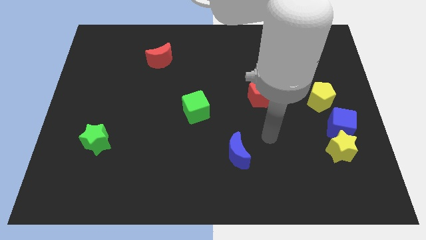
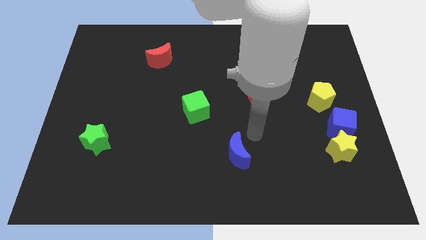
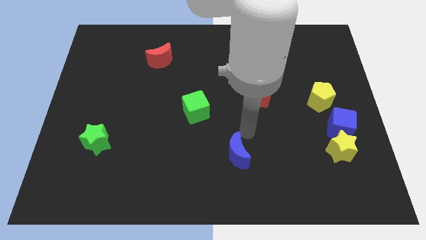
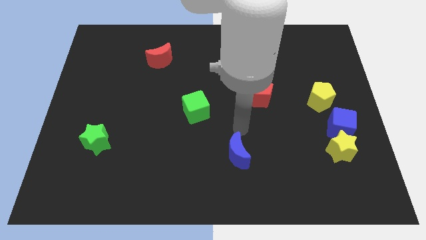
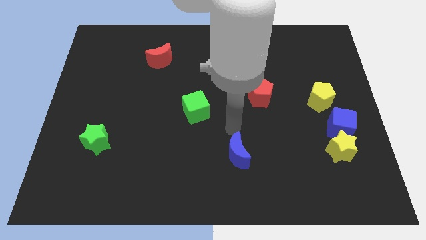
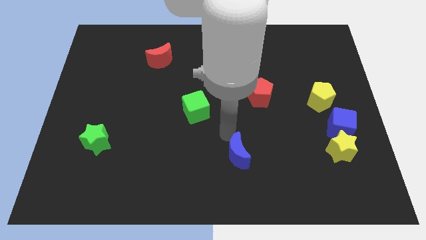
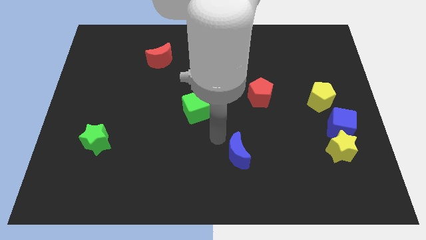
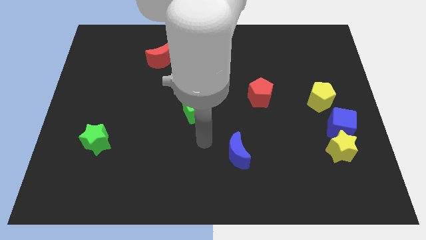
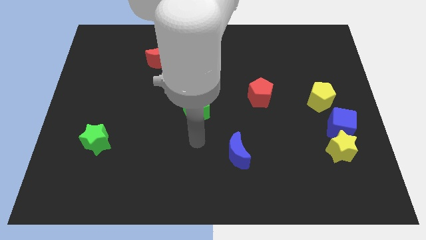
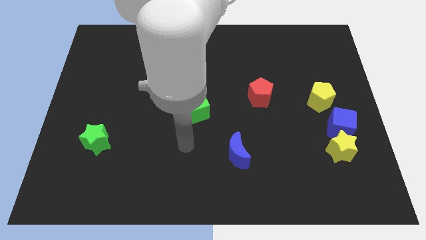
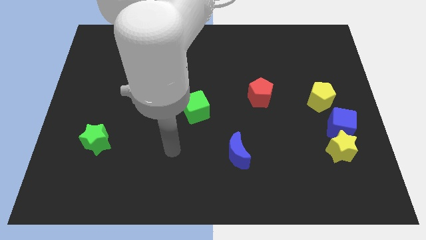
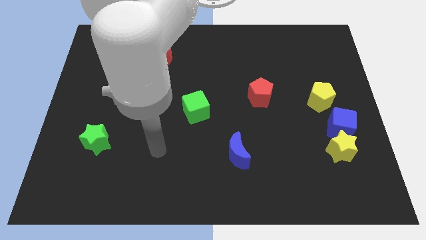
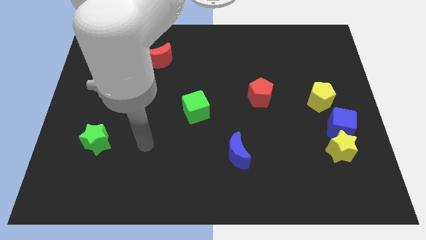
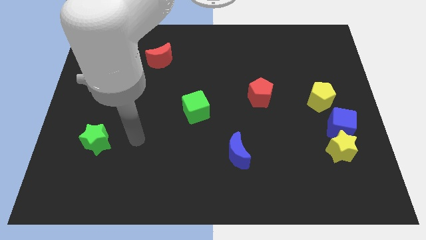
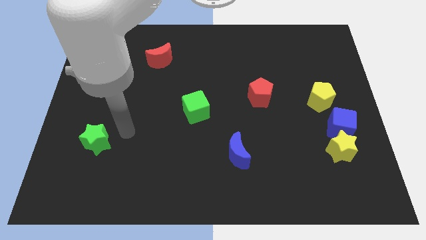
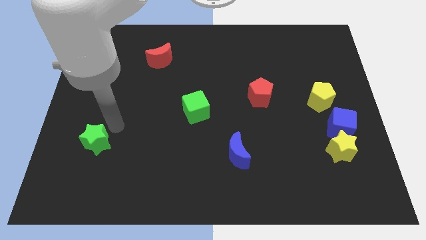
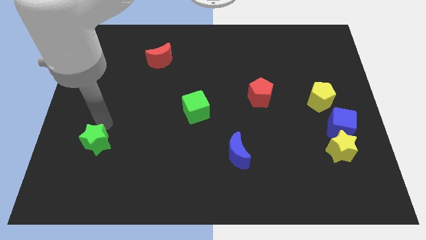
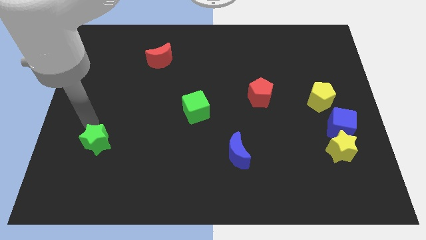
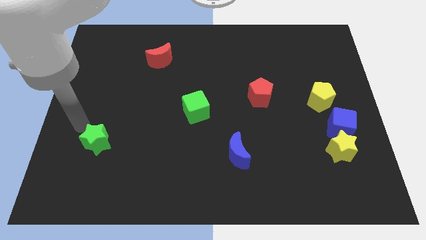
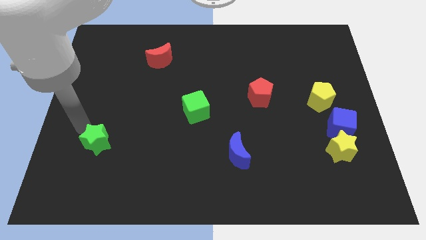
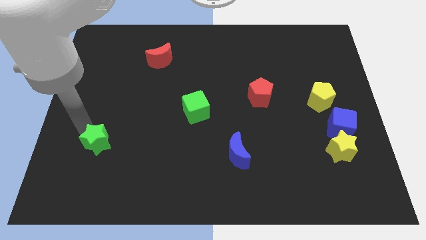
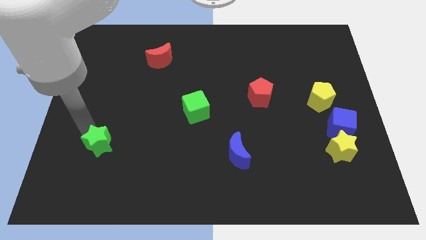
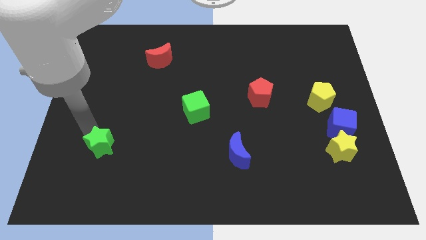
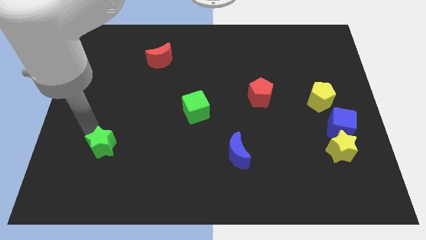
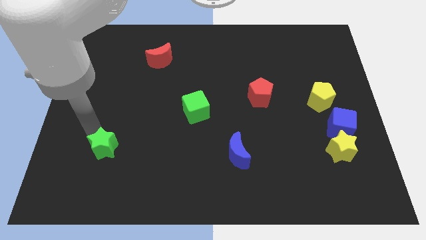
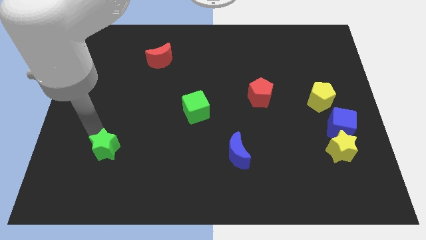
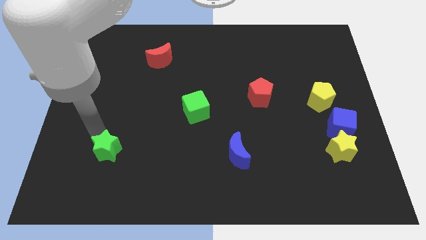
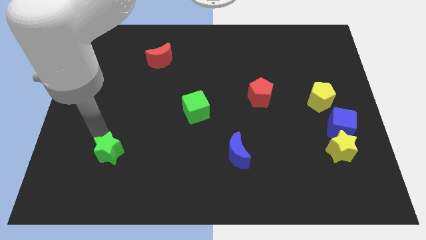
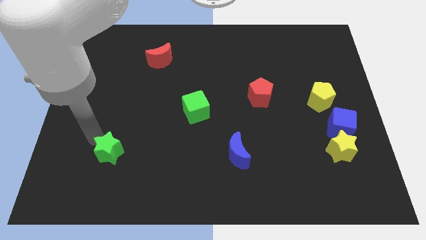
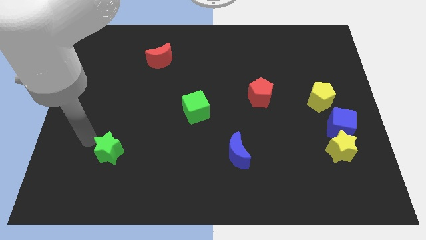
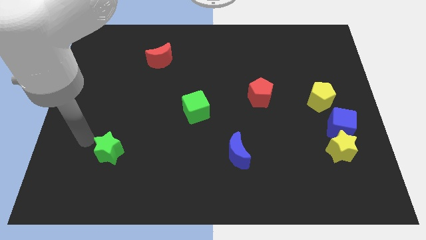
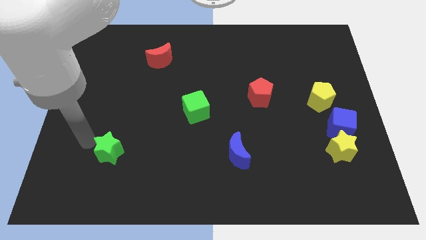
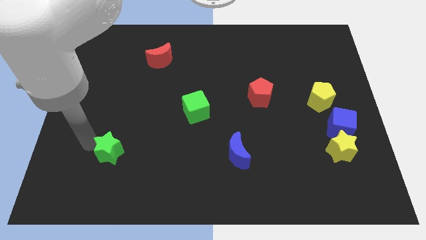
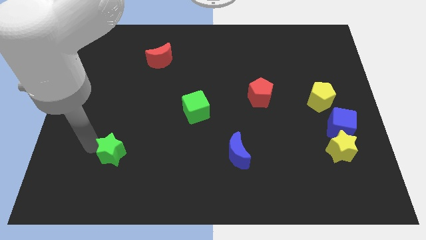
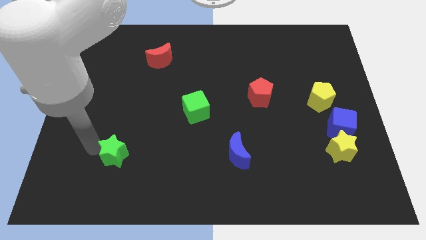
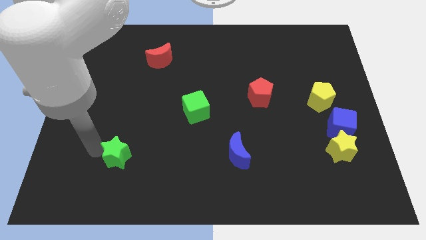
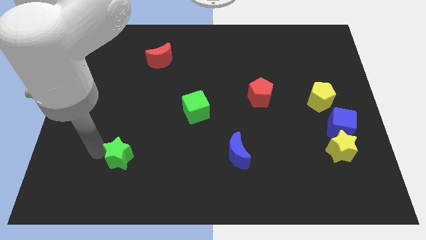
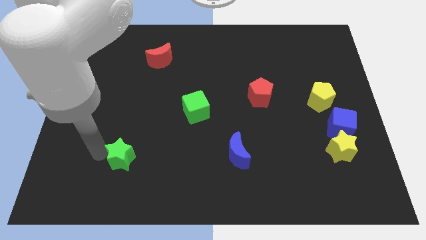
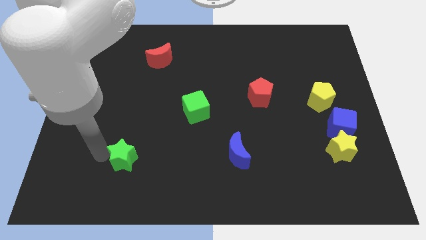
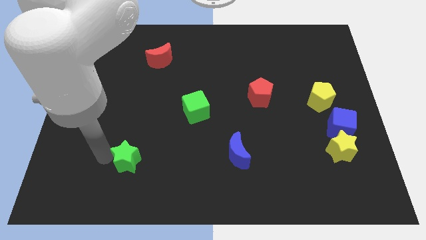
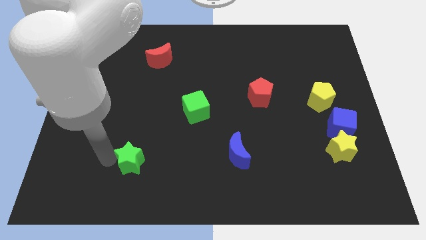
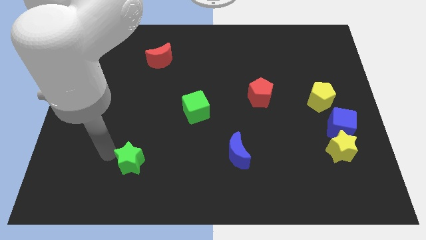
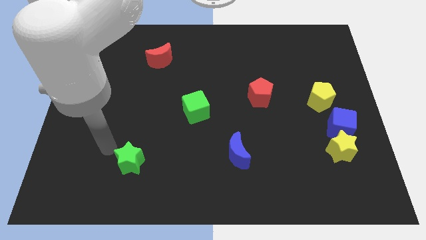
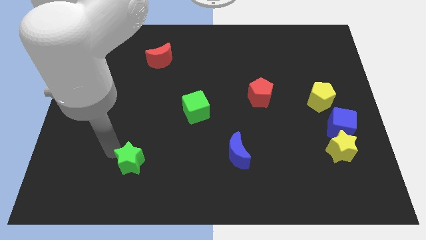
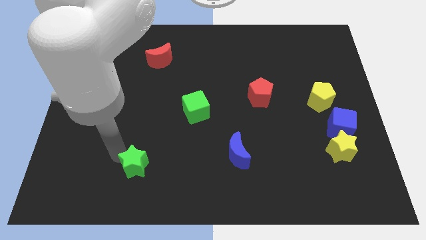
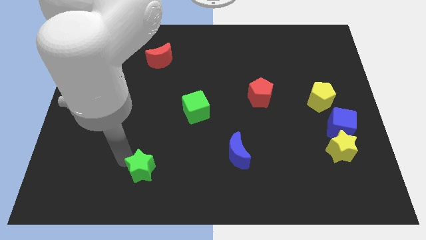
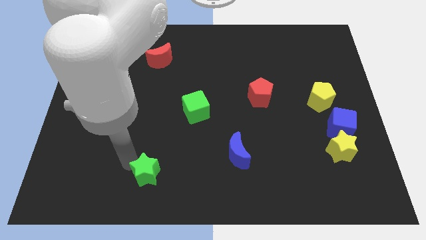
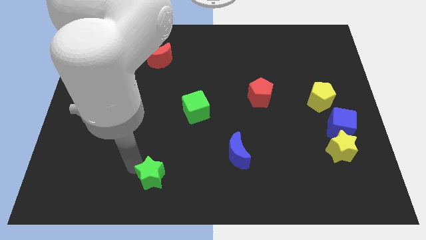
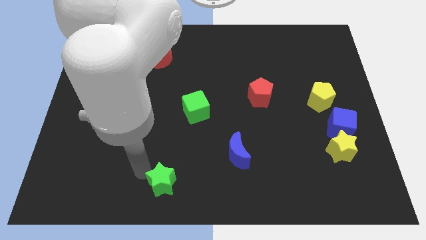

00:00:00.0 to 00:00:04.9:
push the green star to the bottom side
